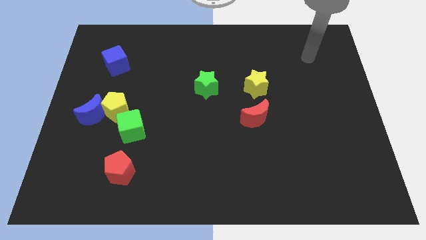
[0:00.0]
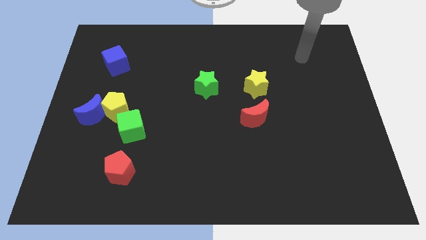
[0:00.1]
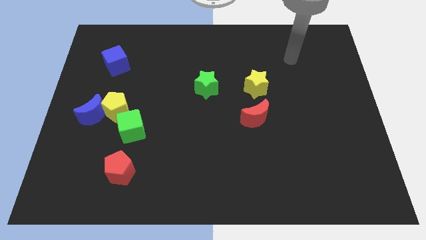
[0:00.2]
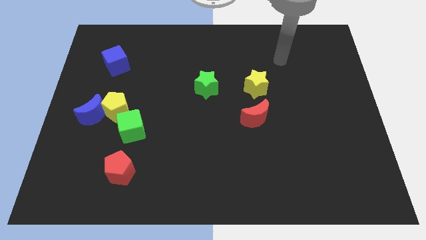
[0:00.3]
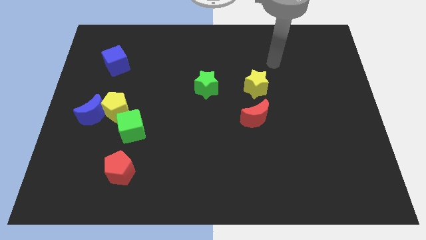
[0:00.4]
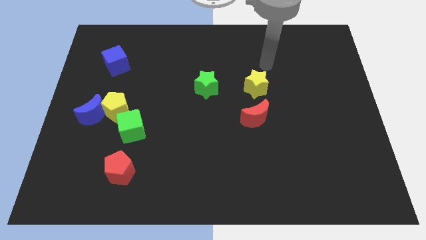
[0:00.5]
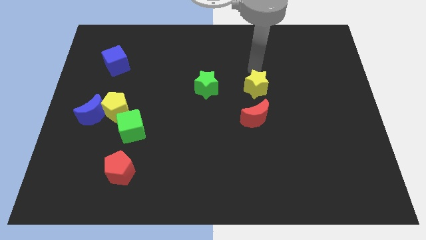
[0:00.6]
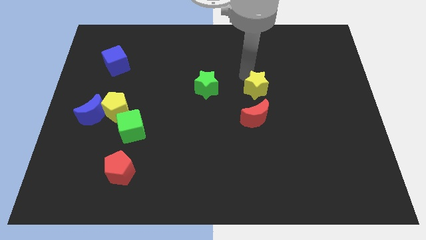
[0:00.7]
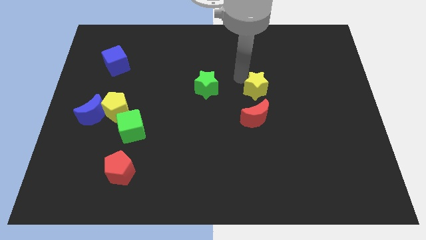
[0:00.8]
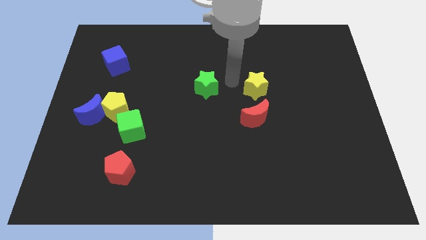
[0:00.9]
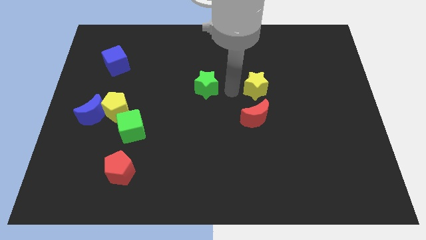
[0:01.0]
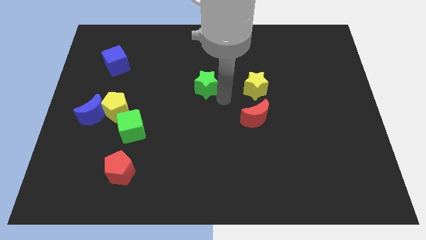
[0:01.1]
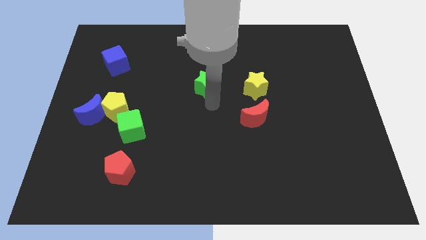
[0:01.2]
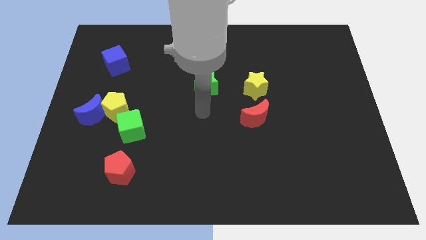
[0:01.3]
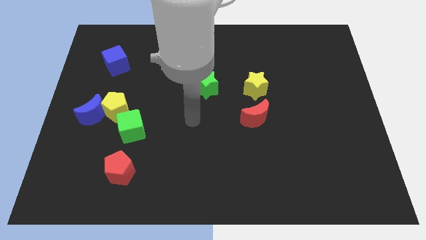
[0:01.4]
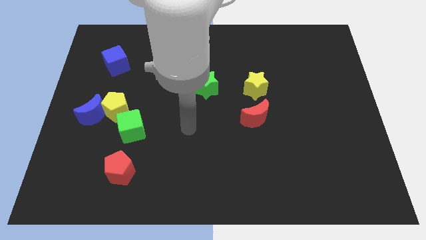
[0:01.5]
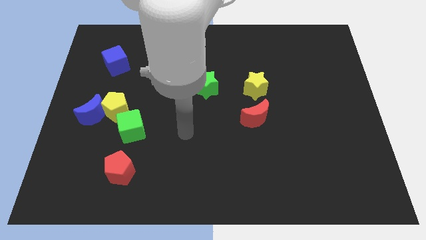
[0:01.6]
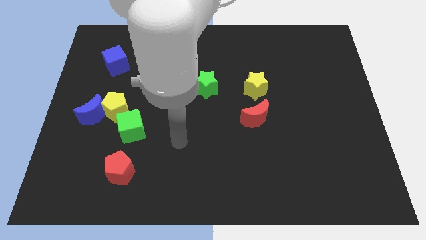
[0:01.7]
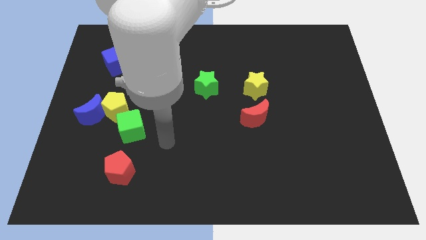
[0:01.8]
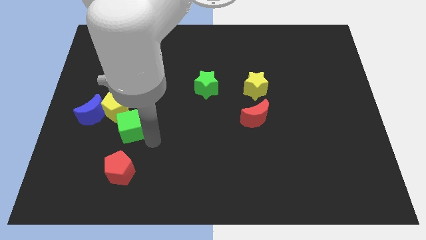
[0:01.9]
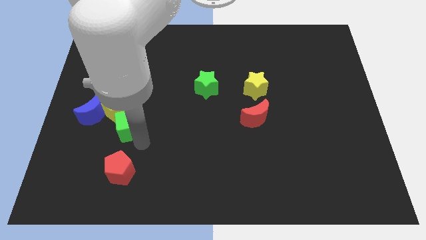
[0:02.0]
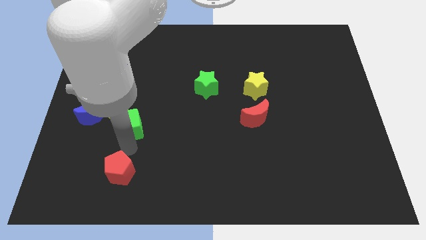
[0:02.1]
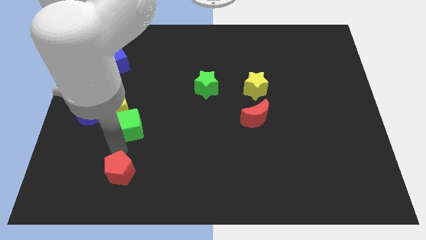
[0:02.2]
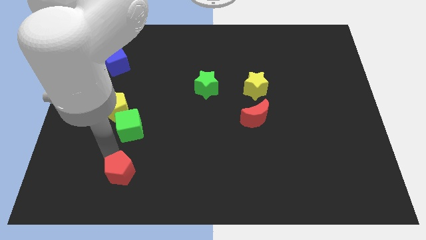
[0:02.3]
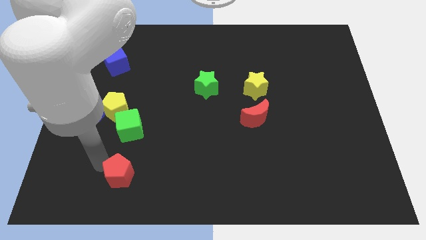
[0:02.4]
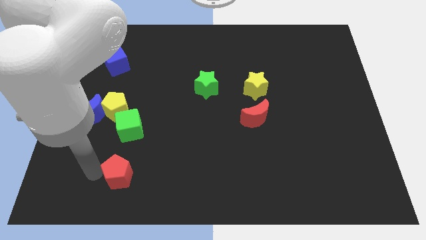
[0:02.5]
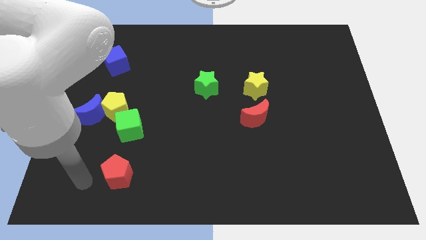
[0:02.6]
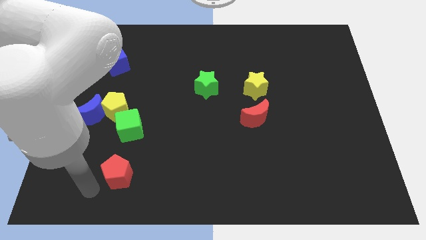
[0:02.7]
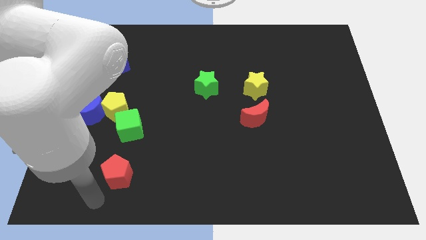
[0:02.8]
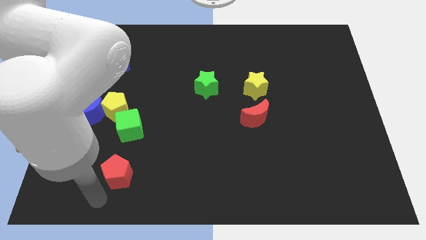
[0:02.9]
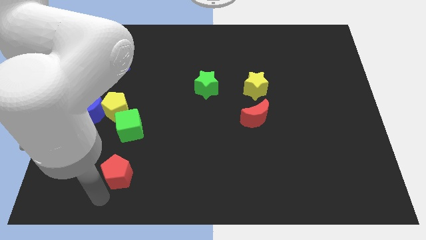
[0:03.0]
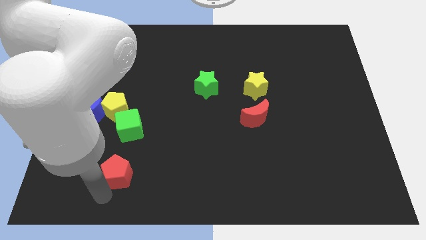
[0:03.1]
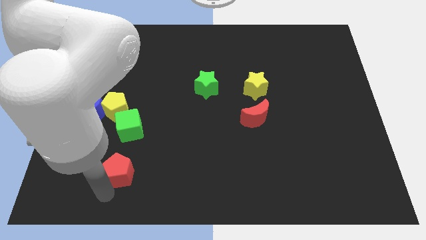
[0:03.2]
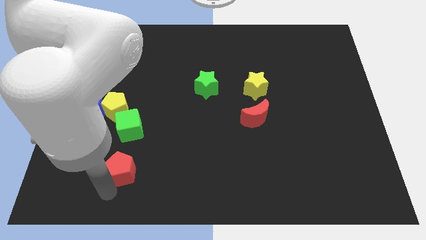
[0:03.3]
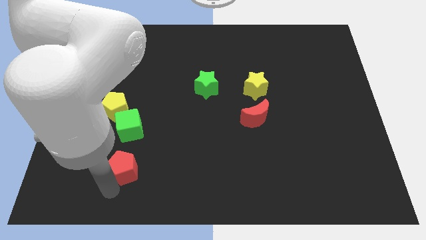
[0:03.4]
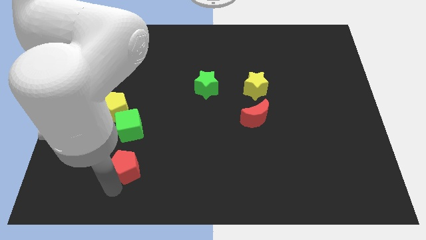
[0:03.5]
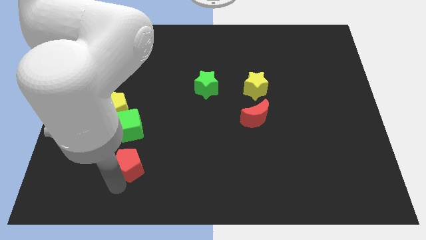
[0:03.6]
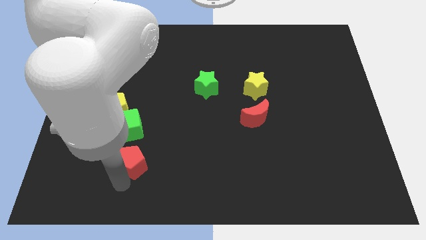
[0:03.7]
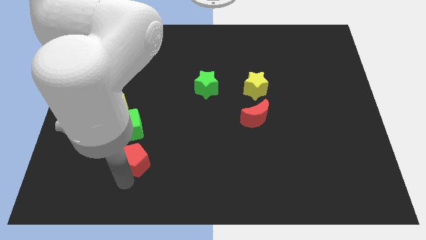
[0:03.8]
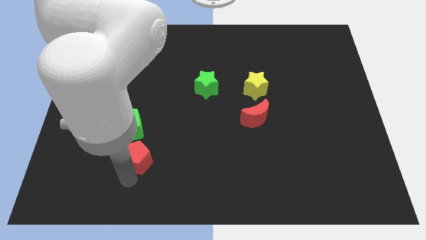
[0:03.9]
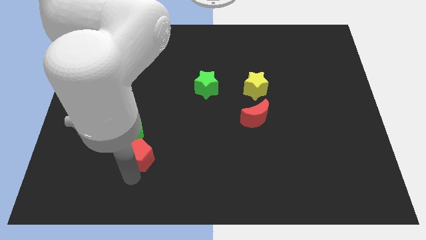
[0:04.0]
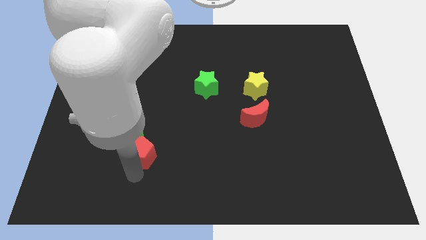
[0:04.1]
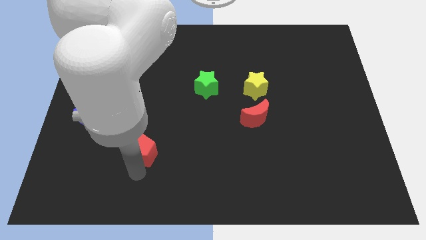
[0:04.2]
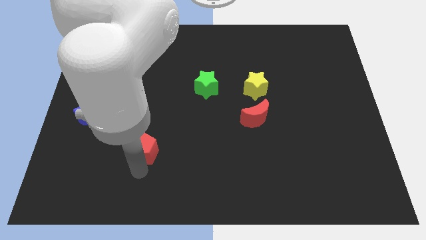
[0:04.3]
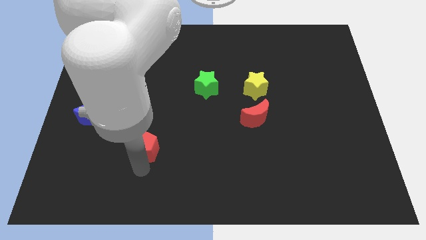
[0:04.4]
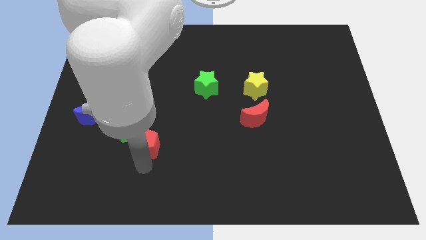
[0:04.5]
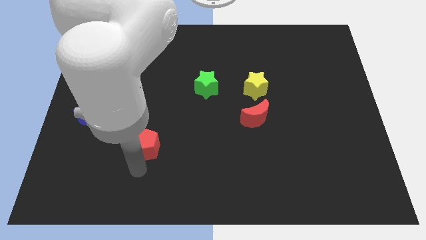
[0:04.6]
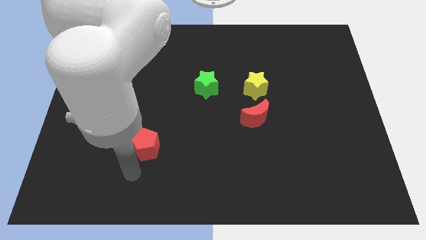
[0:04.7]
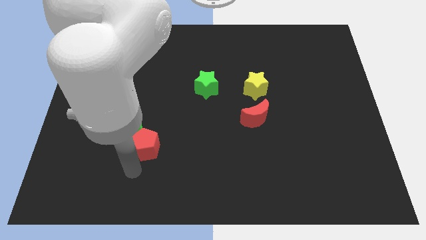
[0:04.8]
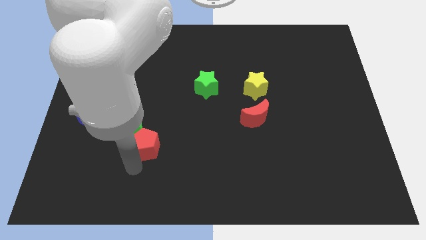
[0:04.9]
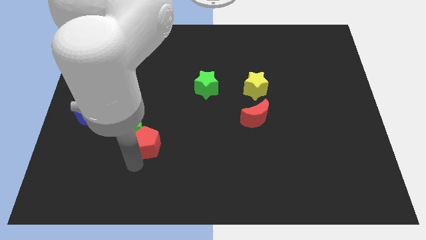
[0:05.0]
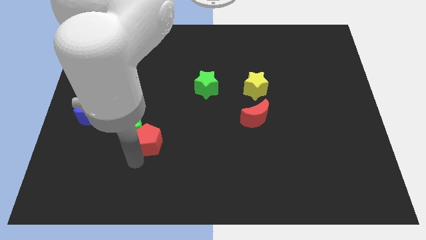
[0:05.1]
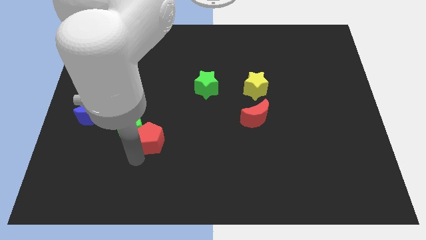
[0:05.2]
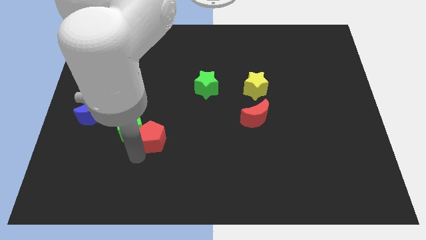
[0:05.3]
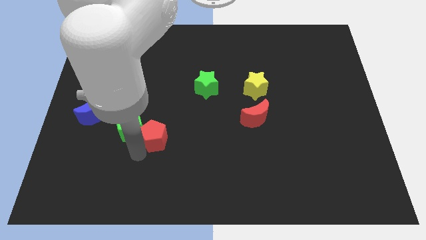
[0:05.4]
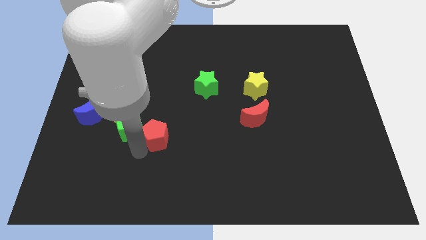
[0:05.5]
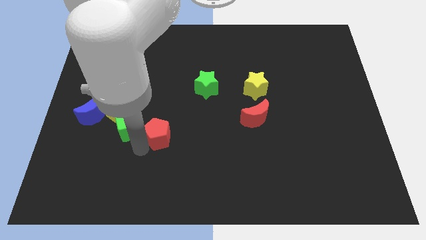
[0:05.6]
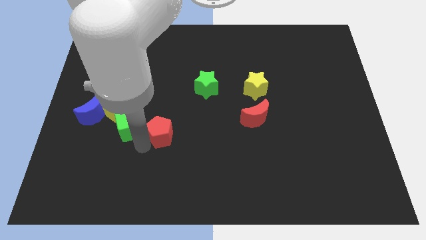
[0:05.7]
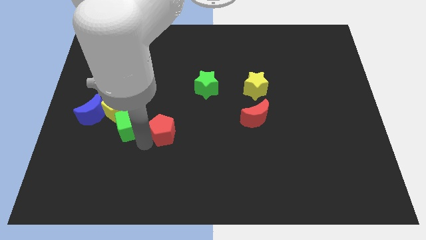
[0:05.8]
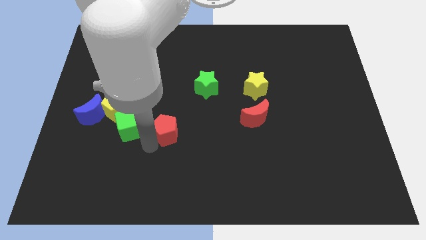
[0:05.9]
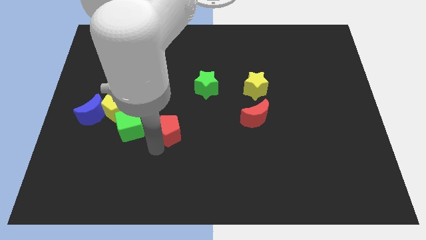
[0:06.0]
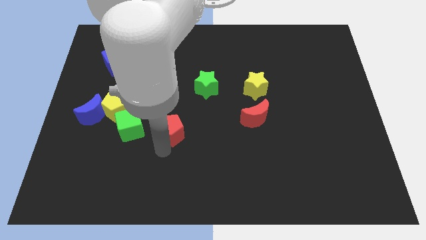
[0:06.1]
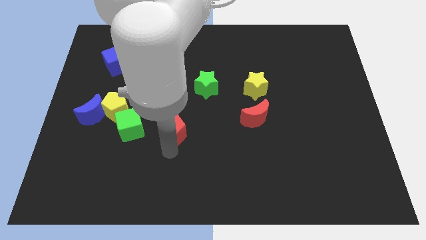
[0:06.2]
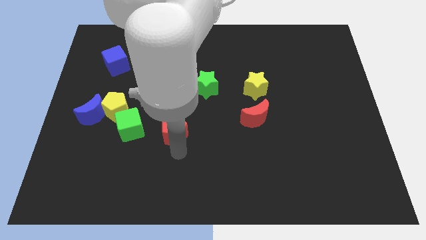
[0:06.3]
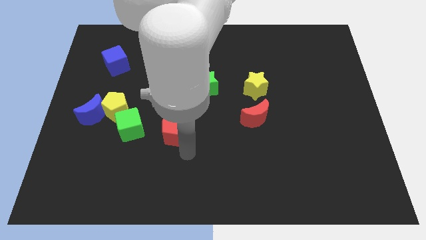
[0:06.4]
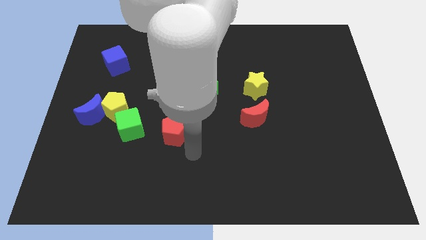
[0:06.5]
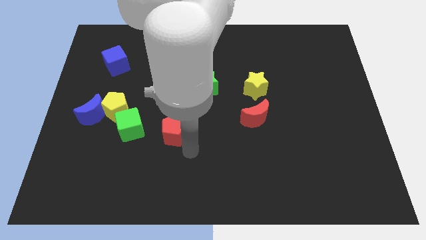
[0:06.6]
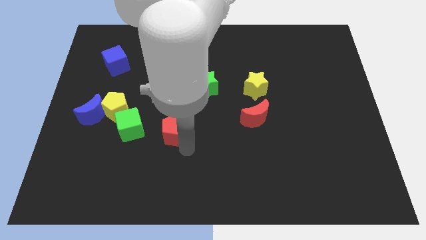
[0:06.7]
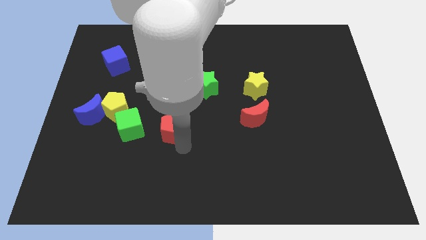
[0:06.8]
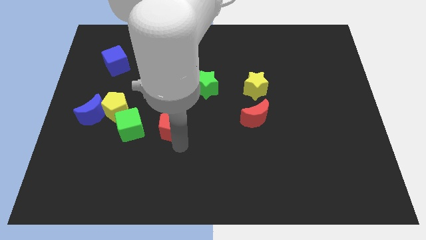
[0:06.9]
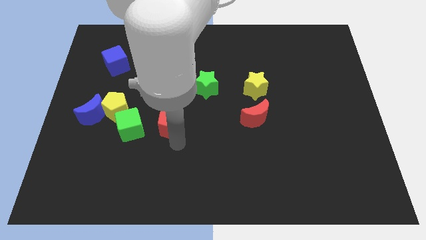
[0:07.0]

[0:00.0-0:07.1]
slightly move the red pentagon upwards

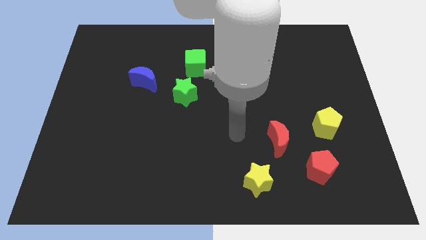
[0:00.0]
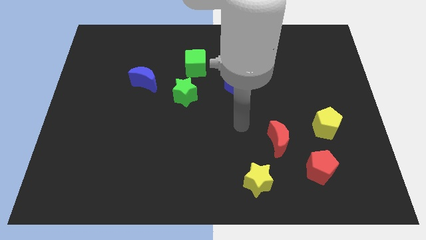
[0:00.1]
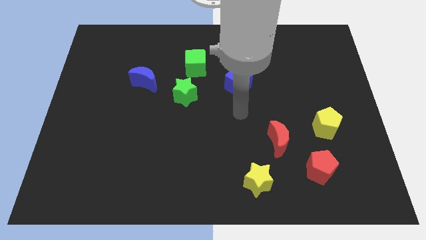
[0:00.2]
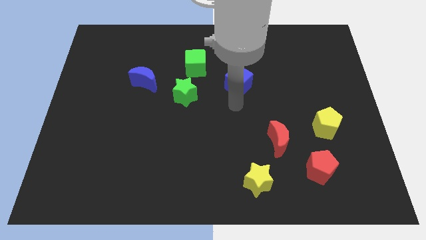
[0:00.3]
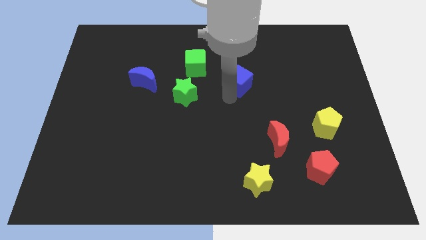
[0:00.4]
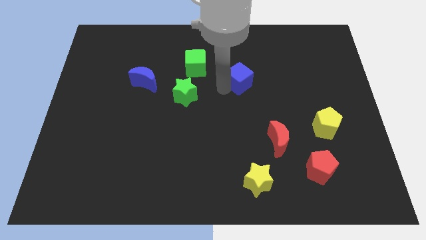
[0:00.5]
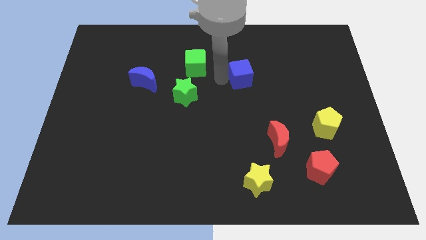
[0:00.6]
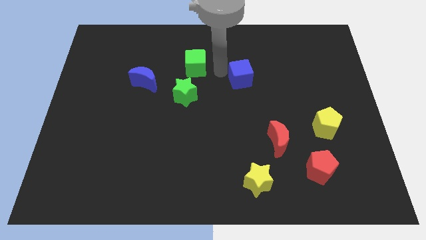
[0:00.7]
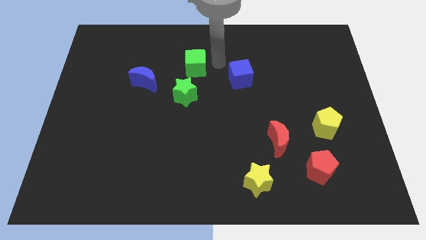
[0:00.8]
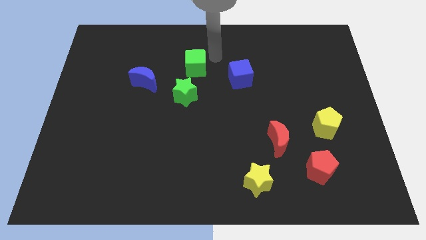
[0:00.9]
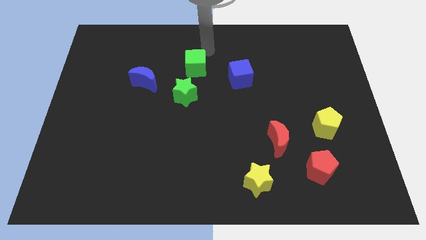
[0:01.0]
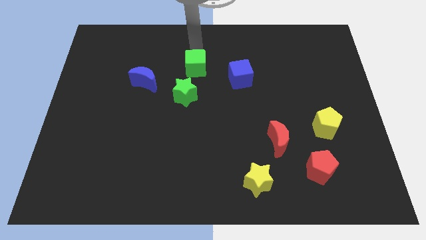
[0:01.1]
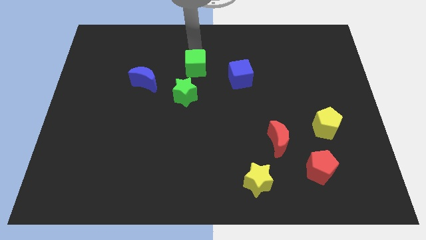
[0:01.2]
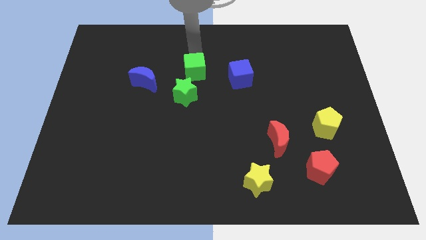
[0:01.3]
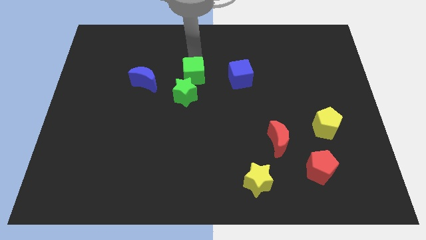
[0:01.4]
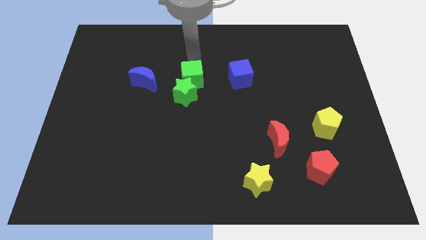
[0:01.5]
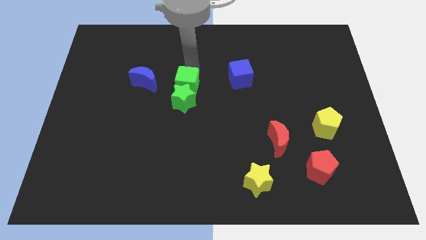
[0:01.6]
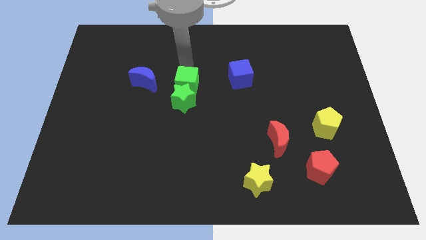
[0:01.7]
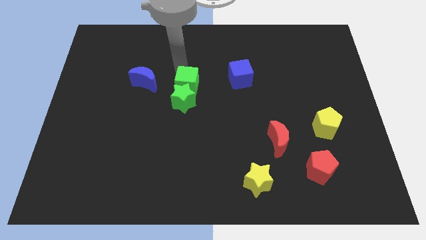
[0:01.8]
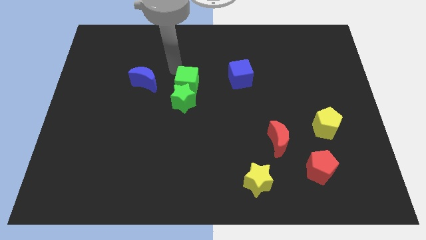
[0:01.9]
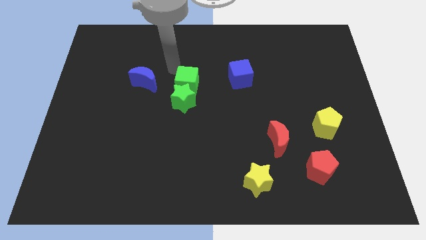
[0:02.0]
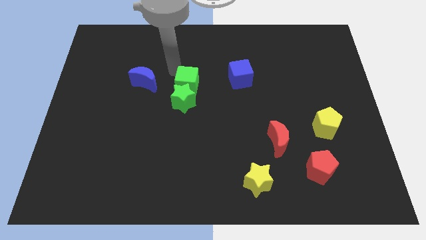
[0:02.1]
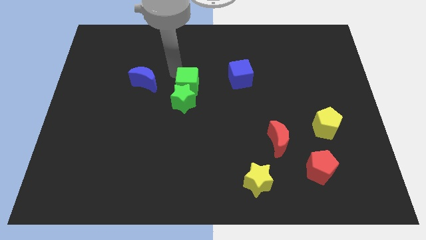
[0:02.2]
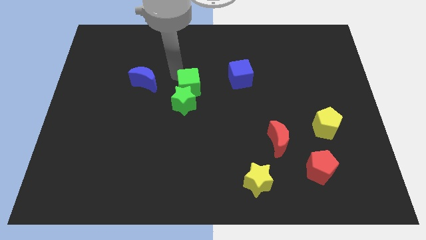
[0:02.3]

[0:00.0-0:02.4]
move the green cube downwards a bit
